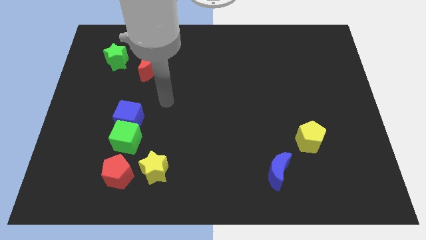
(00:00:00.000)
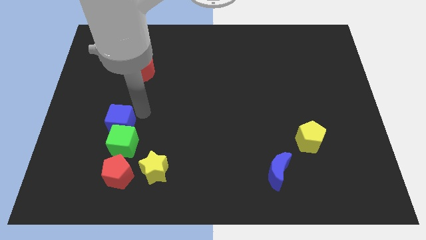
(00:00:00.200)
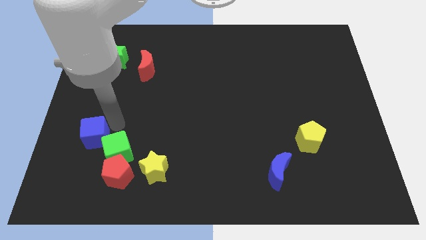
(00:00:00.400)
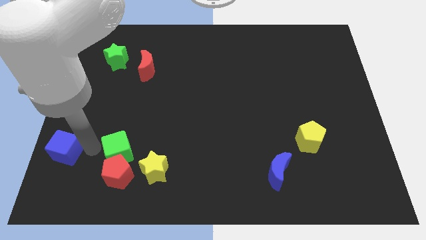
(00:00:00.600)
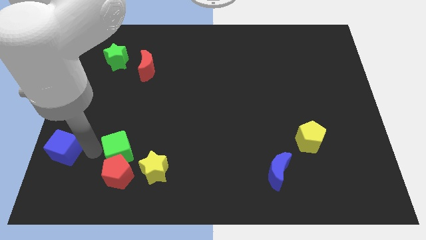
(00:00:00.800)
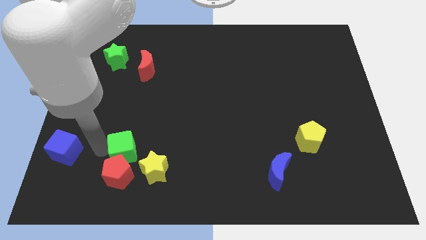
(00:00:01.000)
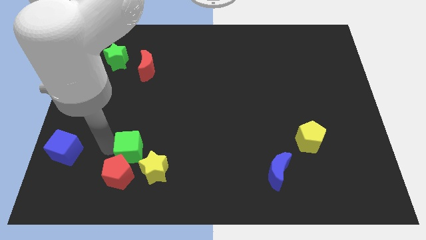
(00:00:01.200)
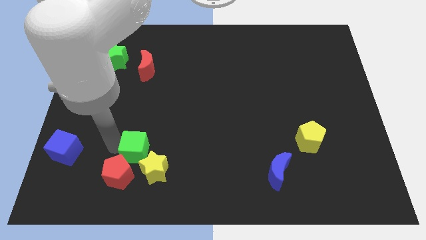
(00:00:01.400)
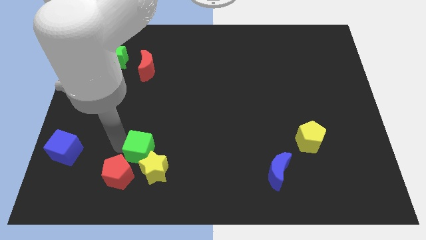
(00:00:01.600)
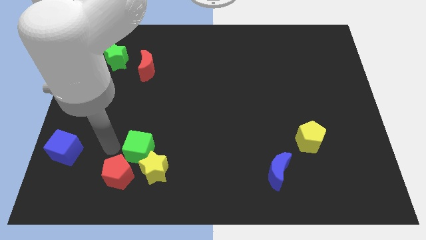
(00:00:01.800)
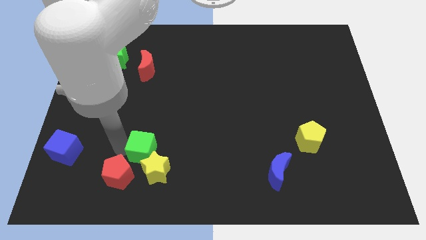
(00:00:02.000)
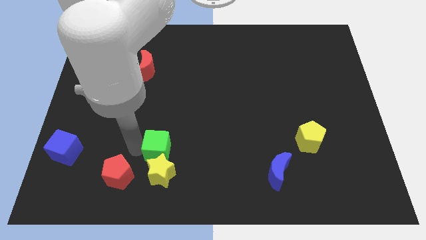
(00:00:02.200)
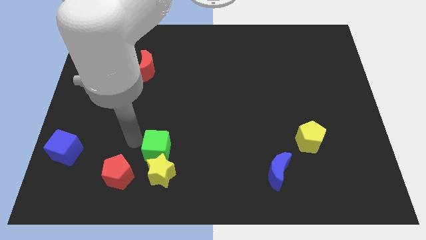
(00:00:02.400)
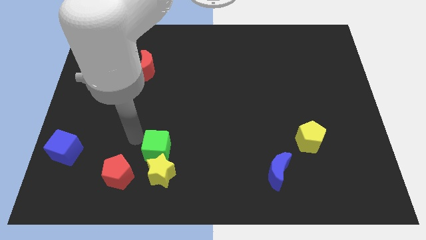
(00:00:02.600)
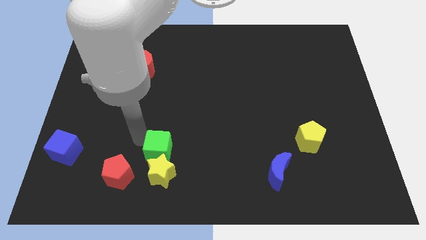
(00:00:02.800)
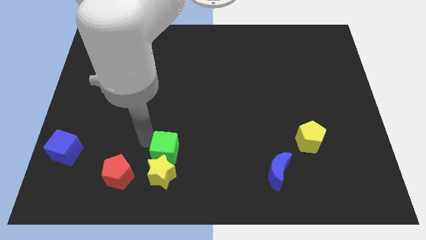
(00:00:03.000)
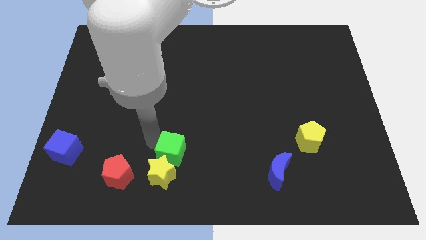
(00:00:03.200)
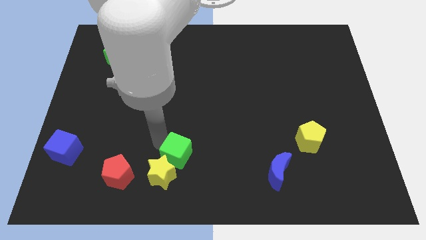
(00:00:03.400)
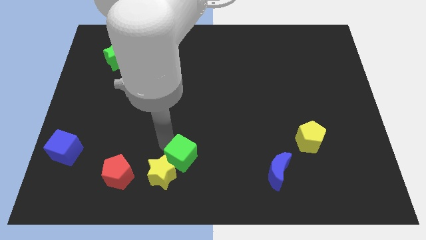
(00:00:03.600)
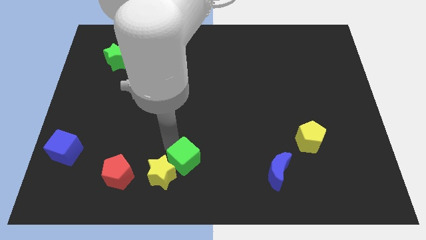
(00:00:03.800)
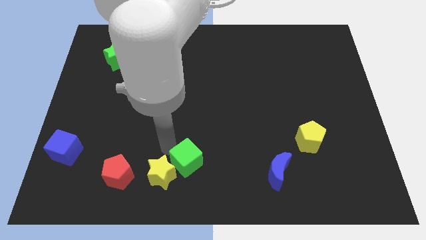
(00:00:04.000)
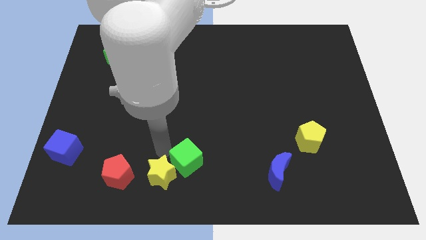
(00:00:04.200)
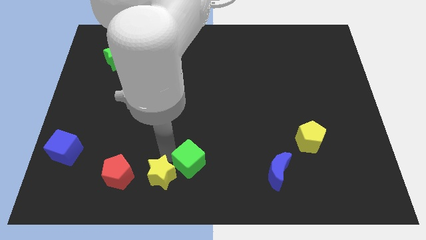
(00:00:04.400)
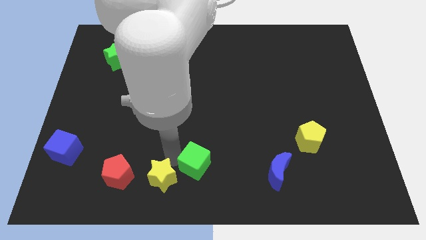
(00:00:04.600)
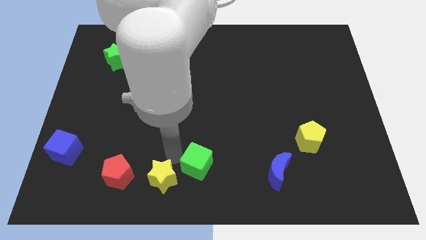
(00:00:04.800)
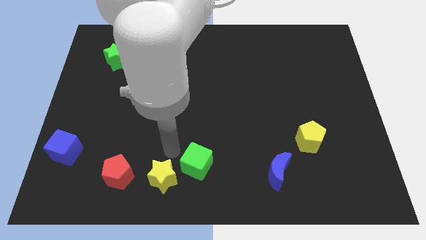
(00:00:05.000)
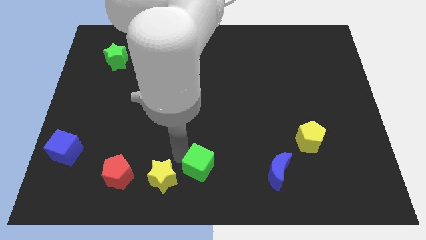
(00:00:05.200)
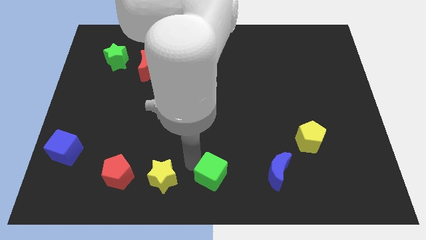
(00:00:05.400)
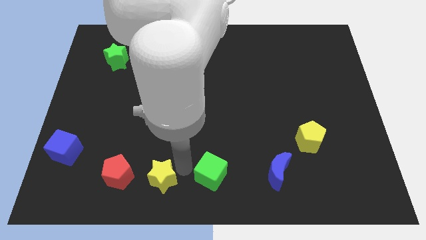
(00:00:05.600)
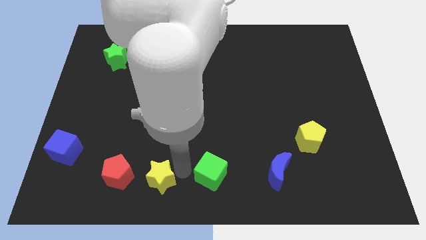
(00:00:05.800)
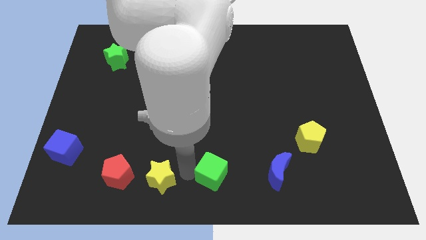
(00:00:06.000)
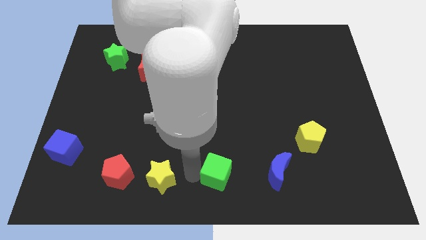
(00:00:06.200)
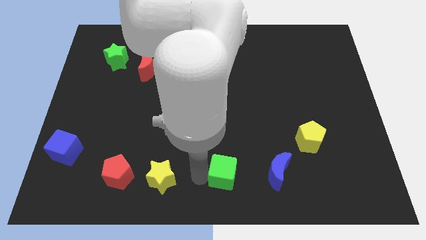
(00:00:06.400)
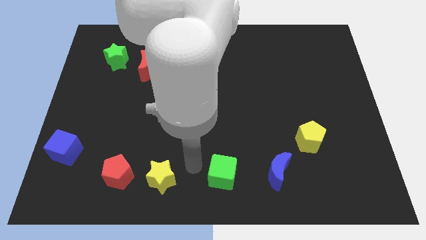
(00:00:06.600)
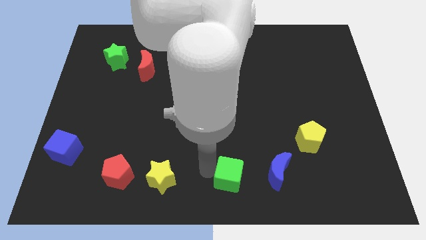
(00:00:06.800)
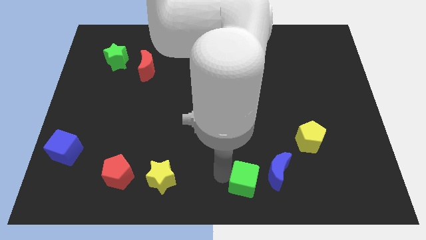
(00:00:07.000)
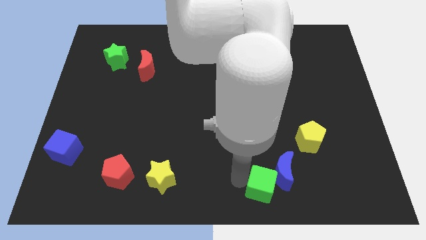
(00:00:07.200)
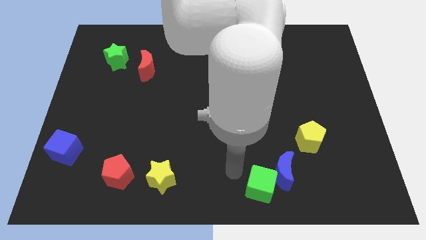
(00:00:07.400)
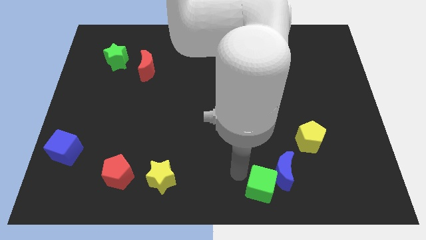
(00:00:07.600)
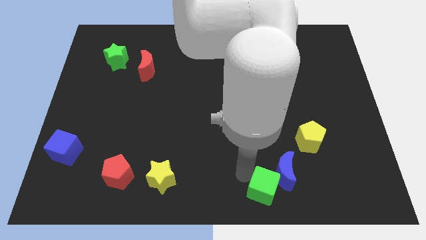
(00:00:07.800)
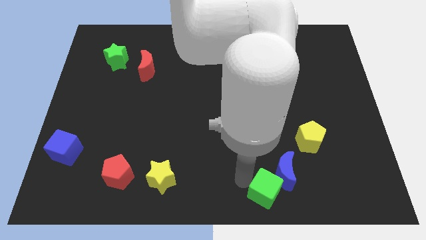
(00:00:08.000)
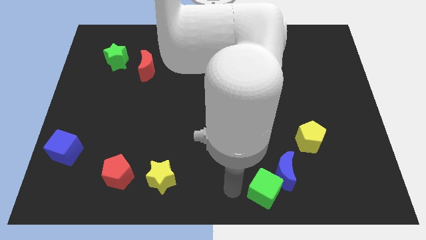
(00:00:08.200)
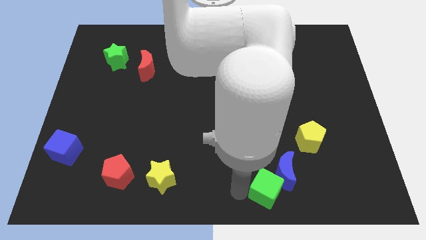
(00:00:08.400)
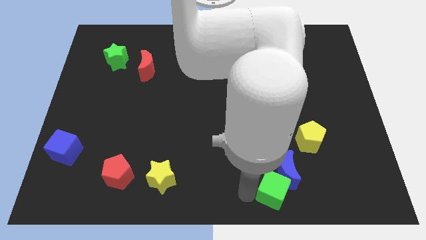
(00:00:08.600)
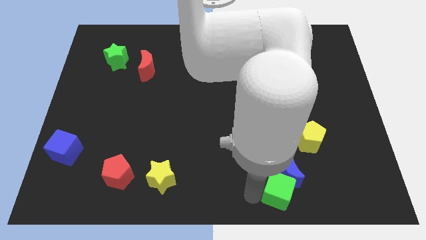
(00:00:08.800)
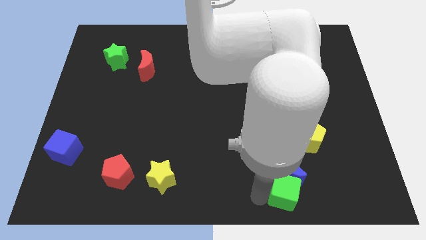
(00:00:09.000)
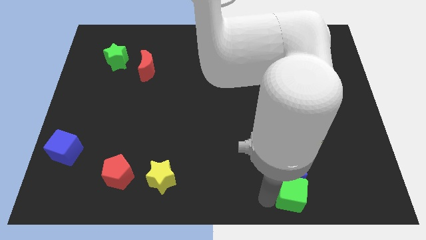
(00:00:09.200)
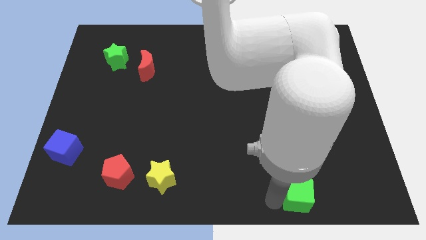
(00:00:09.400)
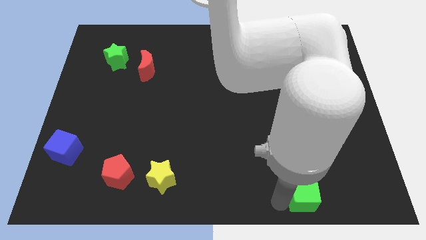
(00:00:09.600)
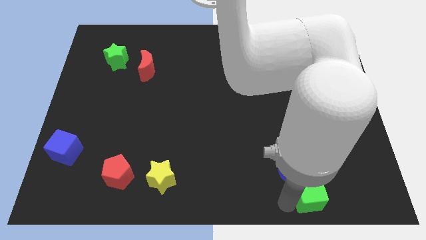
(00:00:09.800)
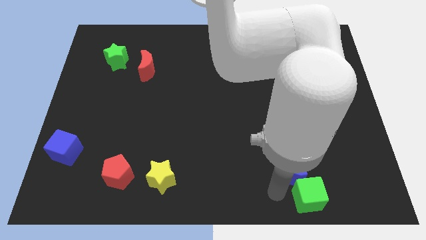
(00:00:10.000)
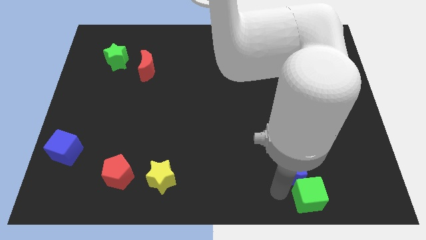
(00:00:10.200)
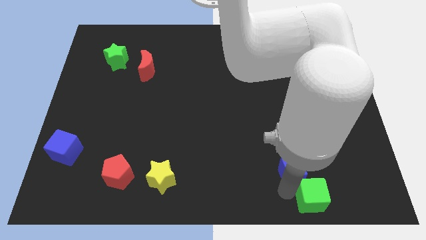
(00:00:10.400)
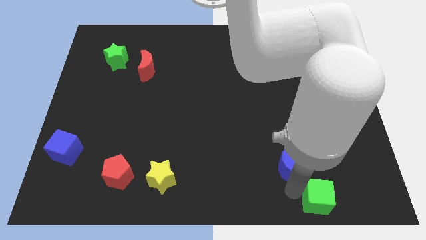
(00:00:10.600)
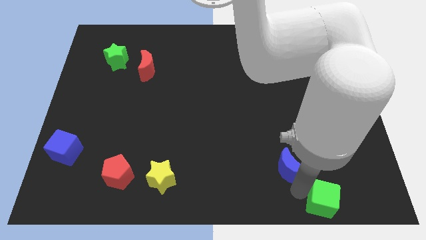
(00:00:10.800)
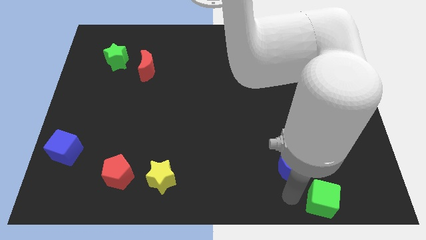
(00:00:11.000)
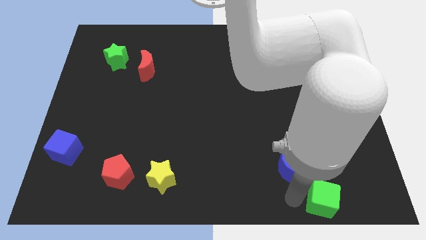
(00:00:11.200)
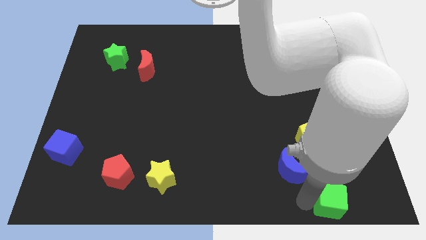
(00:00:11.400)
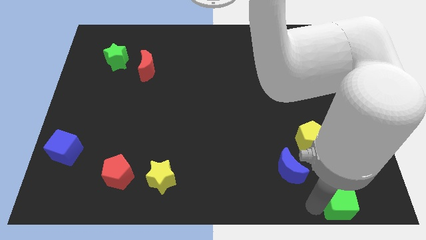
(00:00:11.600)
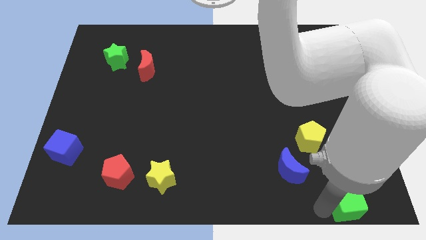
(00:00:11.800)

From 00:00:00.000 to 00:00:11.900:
put the green cube to the bottom right corner

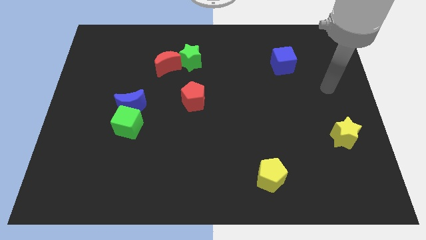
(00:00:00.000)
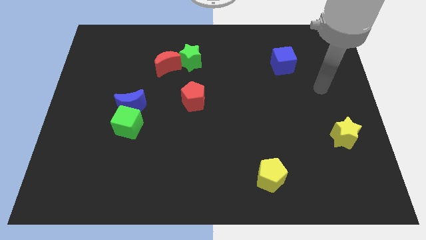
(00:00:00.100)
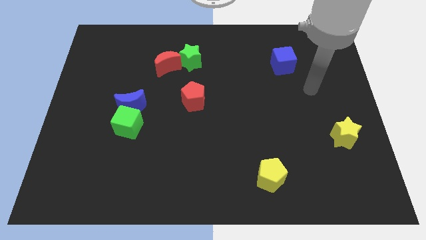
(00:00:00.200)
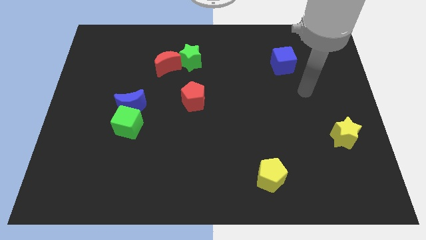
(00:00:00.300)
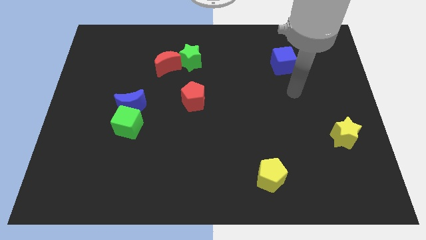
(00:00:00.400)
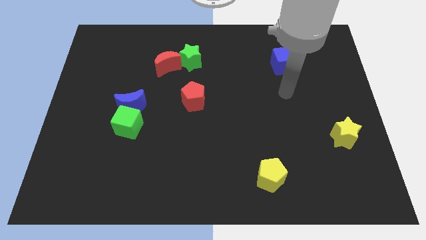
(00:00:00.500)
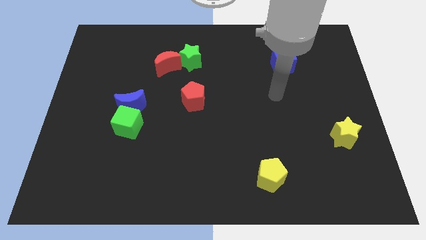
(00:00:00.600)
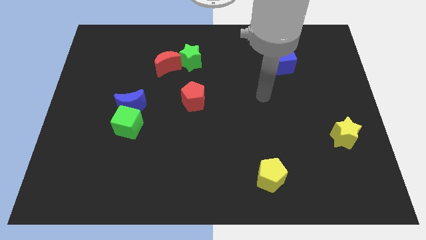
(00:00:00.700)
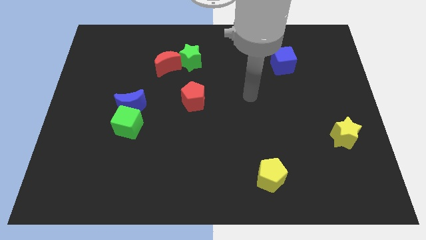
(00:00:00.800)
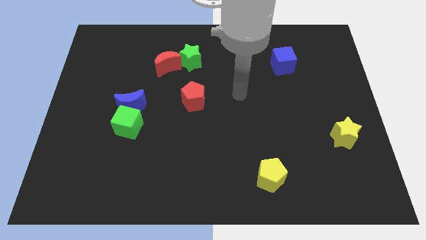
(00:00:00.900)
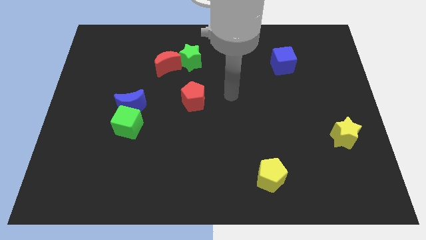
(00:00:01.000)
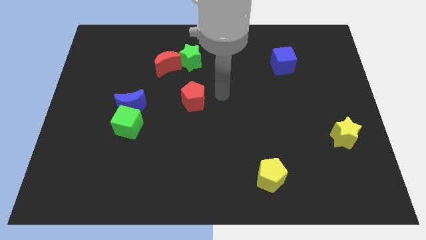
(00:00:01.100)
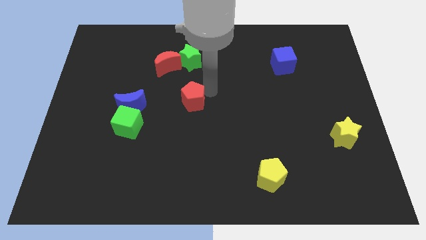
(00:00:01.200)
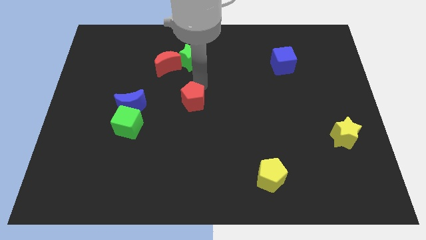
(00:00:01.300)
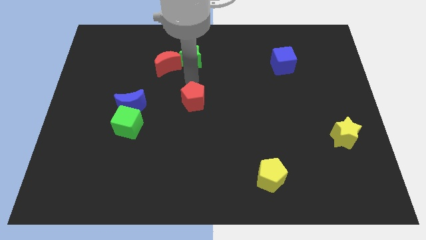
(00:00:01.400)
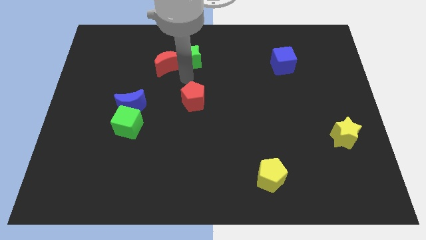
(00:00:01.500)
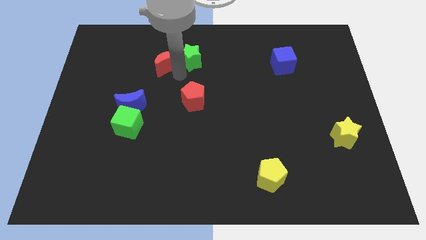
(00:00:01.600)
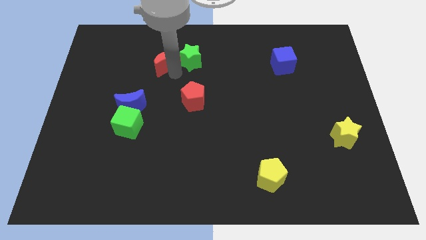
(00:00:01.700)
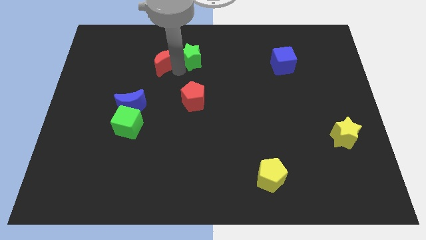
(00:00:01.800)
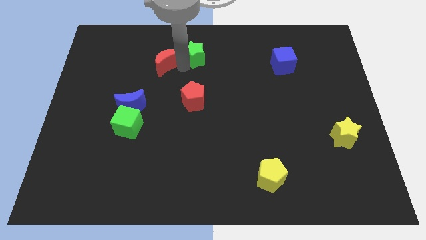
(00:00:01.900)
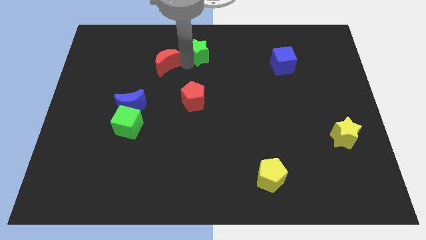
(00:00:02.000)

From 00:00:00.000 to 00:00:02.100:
move the green star to the towards your base
